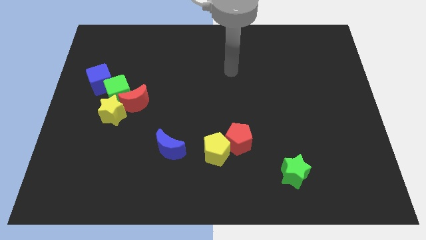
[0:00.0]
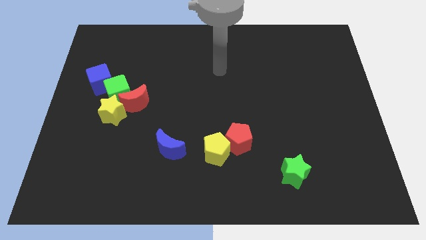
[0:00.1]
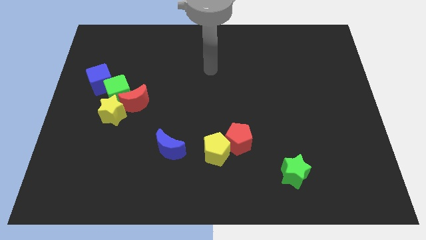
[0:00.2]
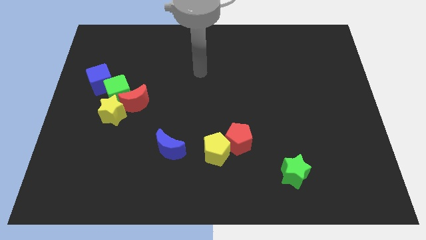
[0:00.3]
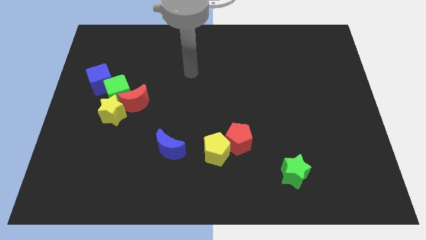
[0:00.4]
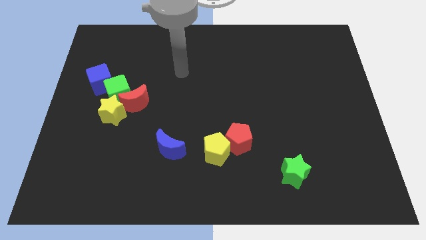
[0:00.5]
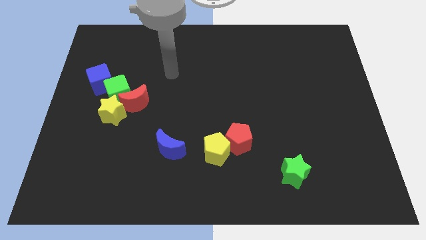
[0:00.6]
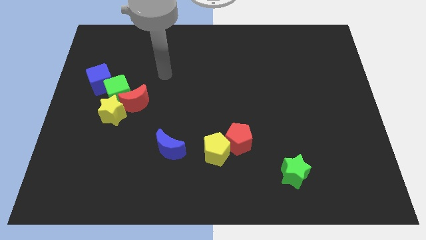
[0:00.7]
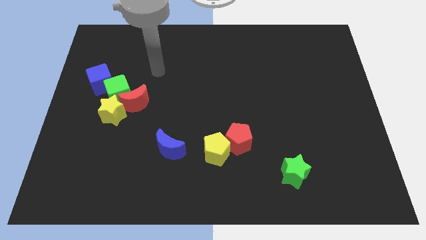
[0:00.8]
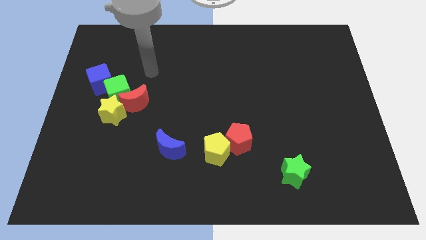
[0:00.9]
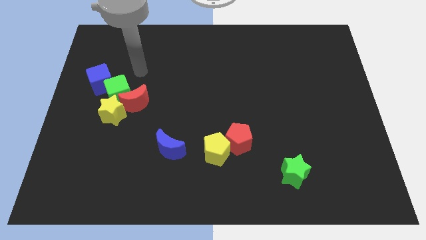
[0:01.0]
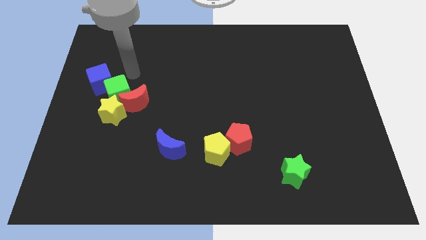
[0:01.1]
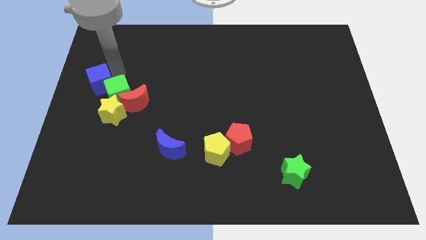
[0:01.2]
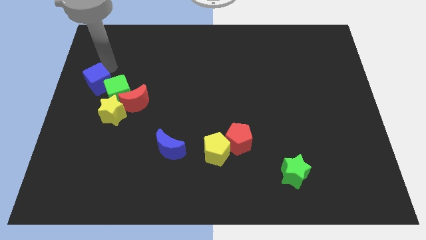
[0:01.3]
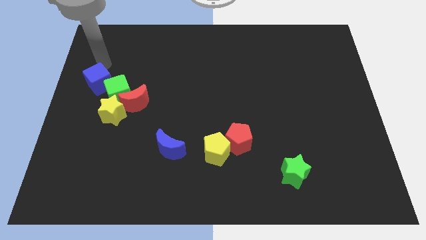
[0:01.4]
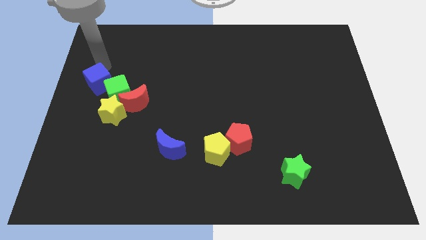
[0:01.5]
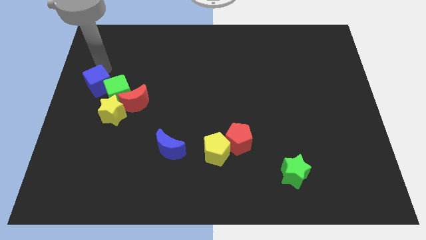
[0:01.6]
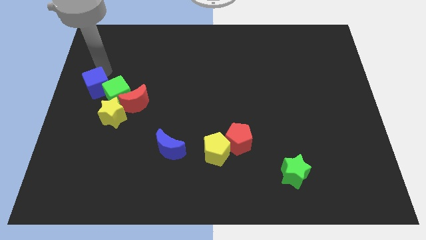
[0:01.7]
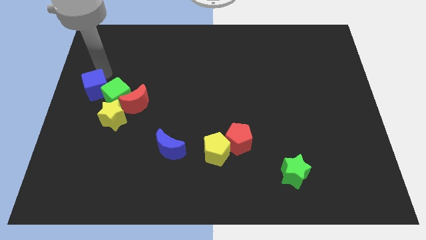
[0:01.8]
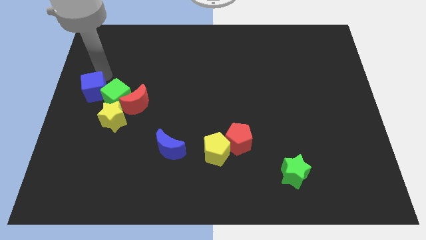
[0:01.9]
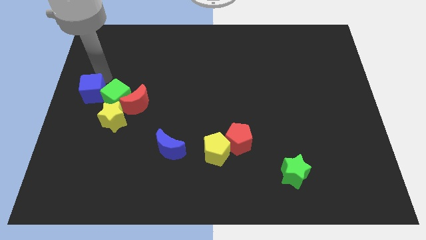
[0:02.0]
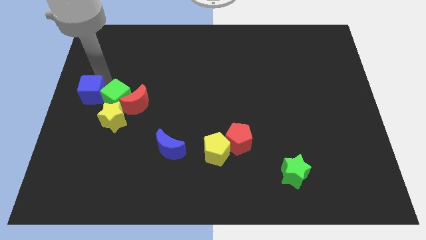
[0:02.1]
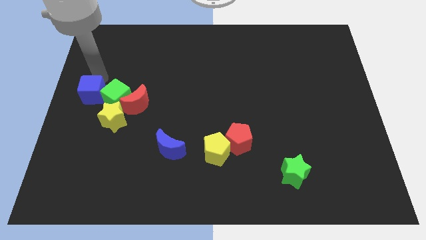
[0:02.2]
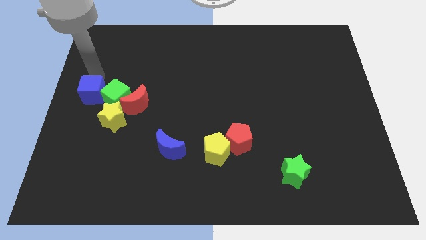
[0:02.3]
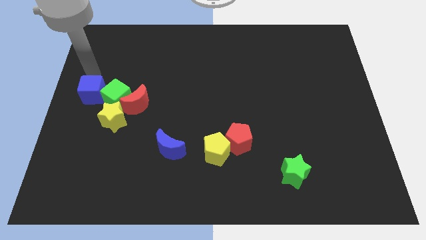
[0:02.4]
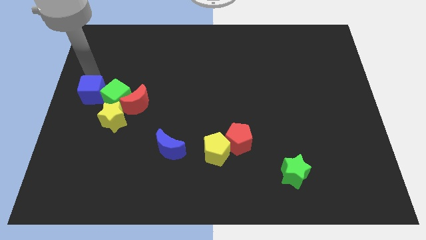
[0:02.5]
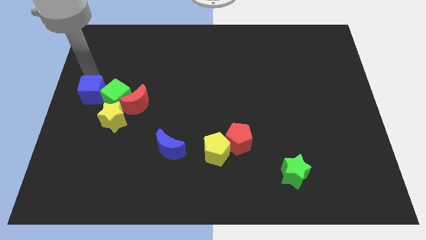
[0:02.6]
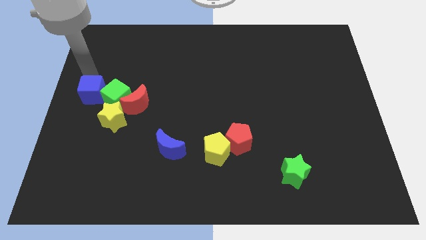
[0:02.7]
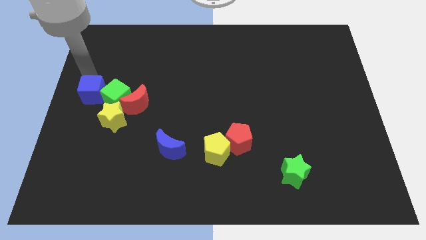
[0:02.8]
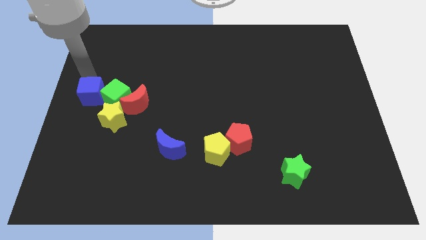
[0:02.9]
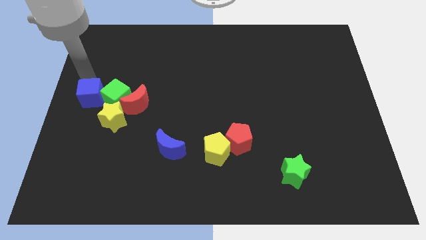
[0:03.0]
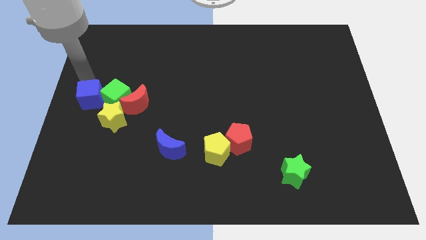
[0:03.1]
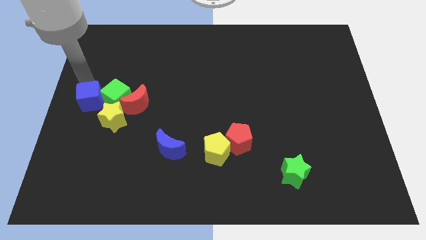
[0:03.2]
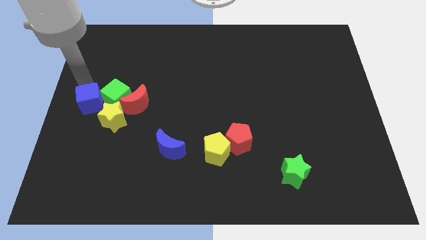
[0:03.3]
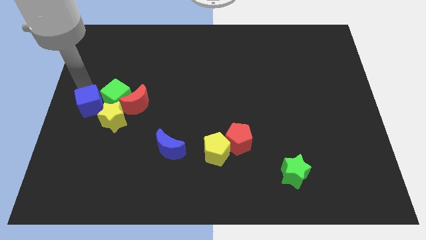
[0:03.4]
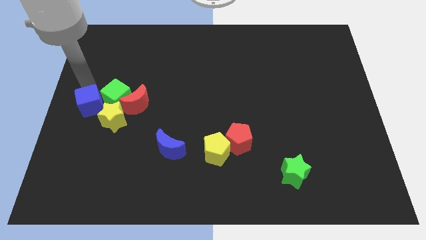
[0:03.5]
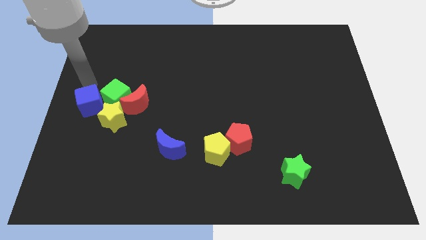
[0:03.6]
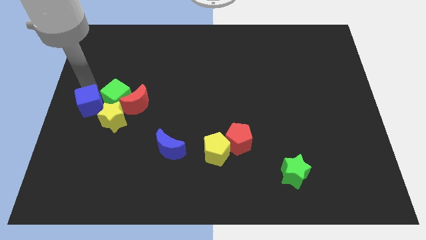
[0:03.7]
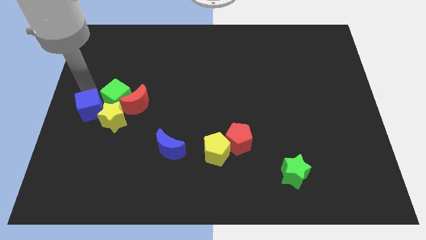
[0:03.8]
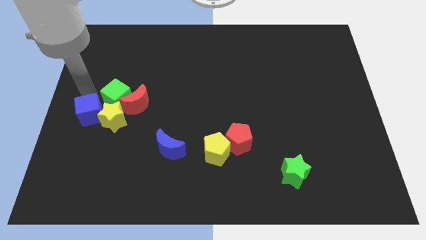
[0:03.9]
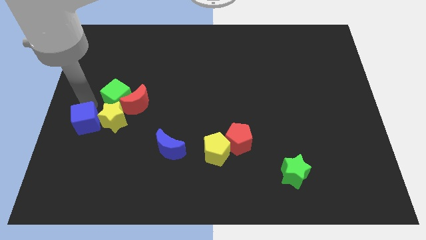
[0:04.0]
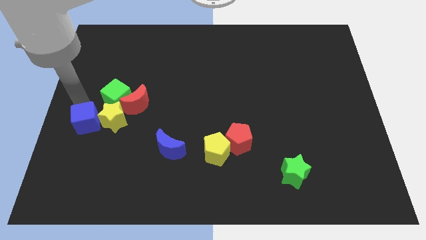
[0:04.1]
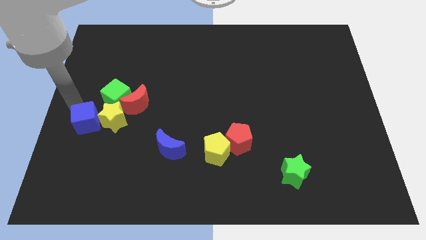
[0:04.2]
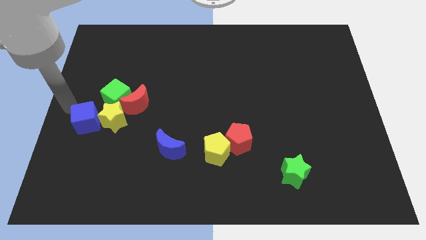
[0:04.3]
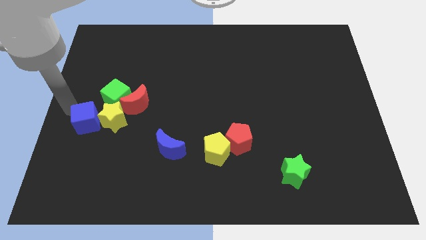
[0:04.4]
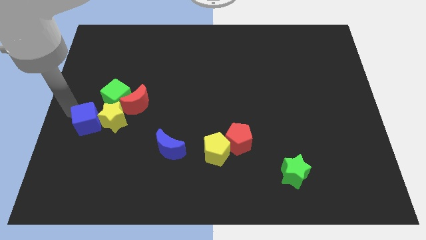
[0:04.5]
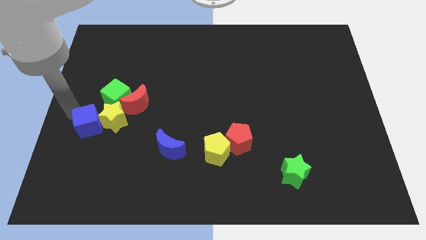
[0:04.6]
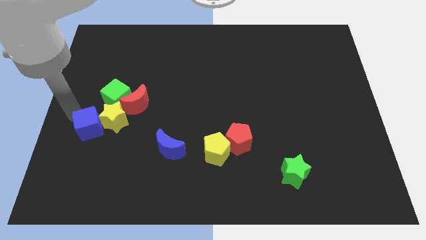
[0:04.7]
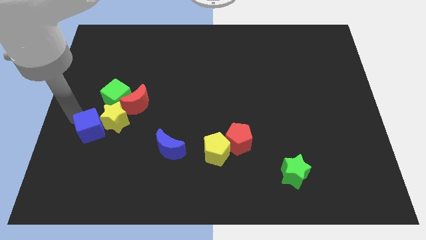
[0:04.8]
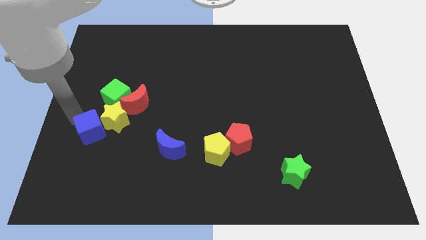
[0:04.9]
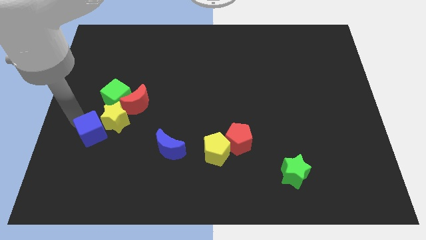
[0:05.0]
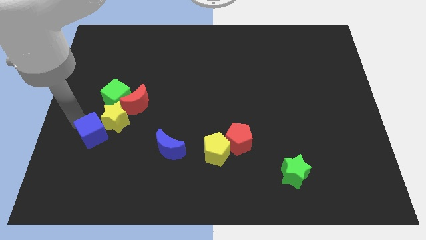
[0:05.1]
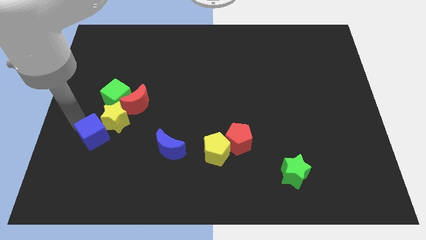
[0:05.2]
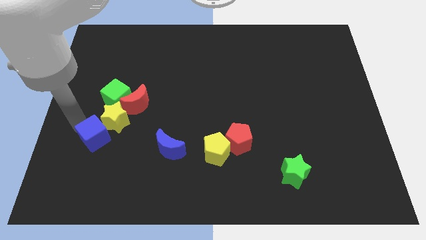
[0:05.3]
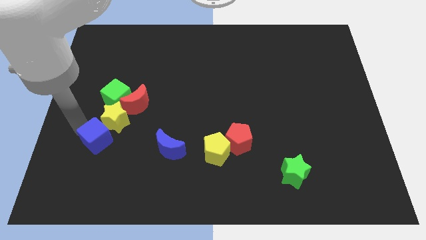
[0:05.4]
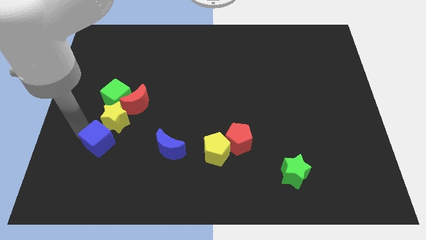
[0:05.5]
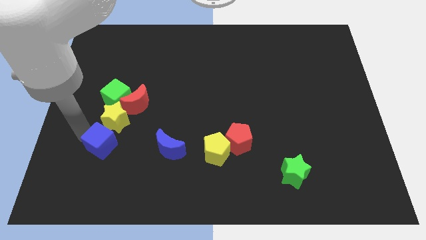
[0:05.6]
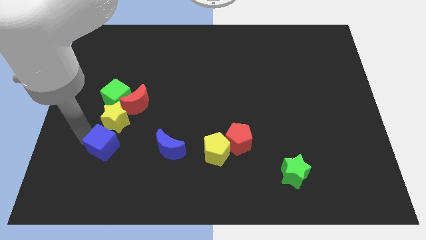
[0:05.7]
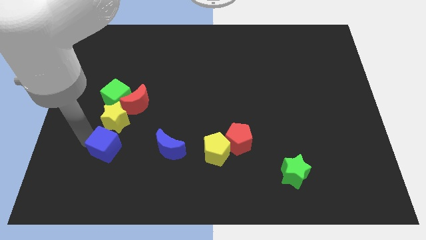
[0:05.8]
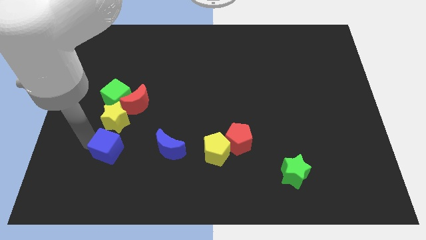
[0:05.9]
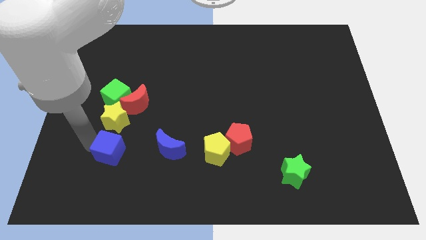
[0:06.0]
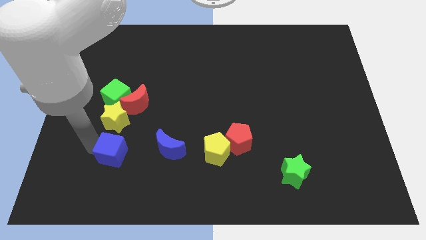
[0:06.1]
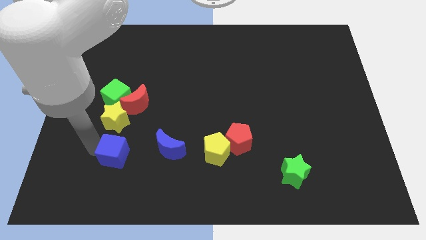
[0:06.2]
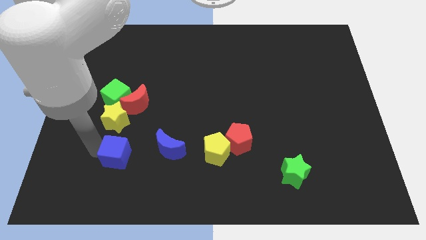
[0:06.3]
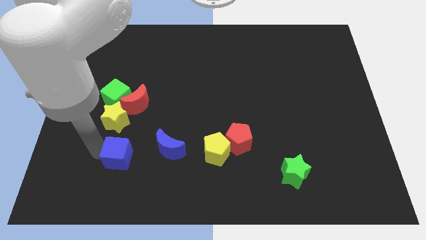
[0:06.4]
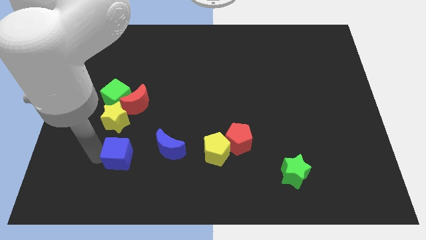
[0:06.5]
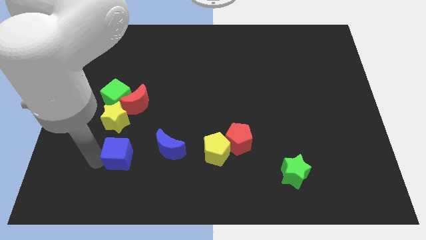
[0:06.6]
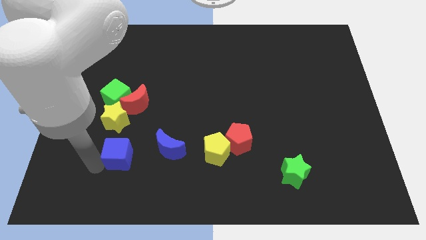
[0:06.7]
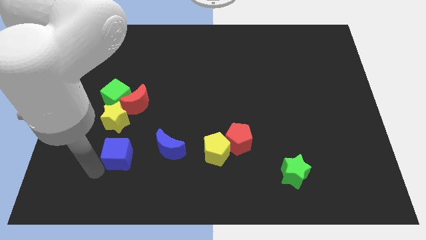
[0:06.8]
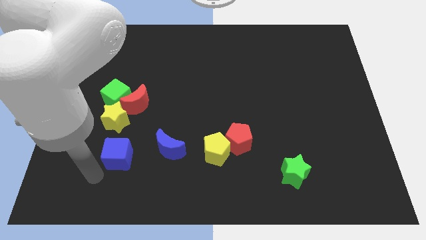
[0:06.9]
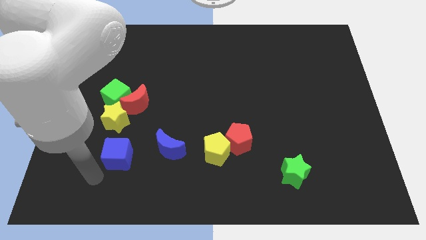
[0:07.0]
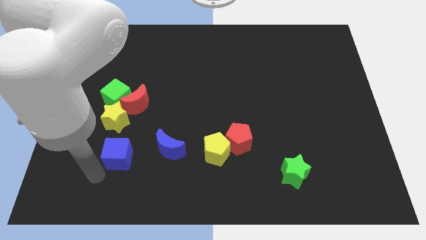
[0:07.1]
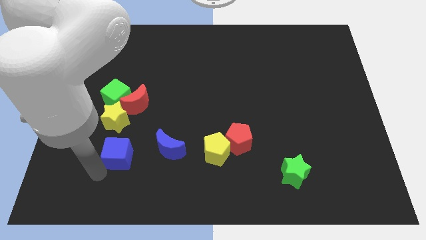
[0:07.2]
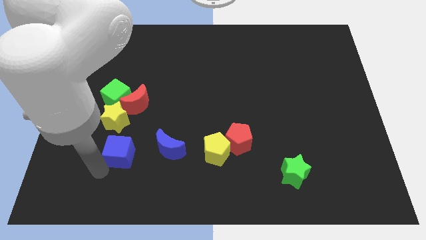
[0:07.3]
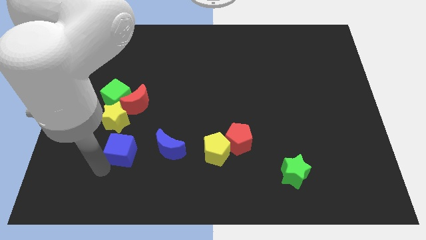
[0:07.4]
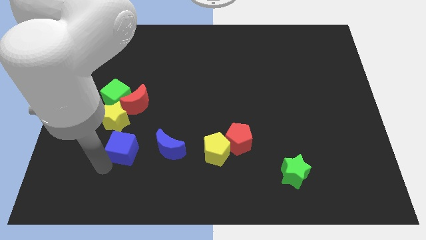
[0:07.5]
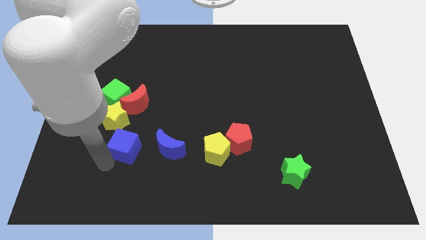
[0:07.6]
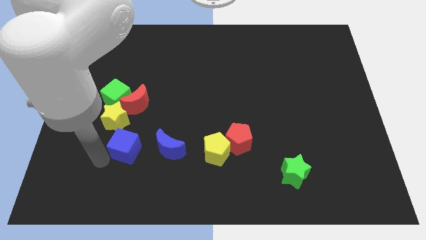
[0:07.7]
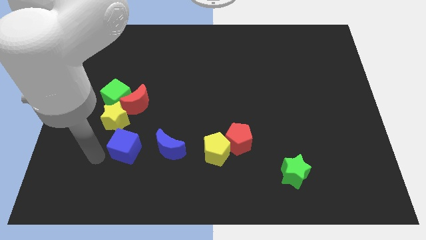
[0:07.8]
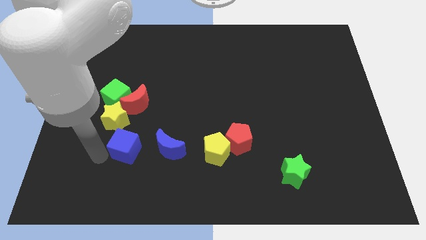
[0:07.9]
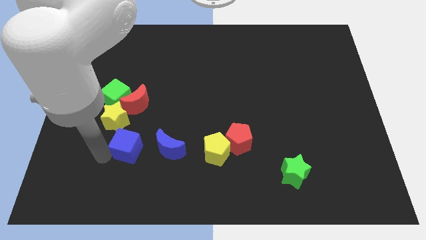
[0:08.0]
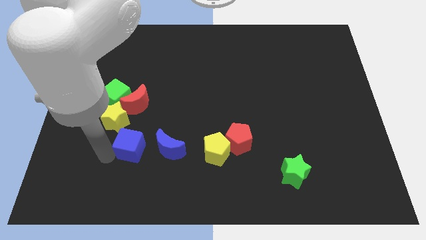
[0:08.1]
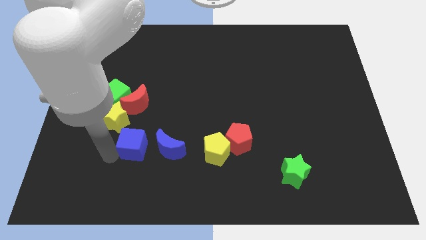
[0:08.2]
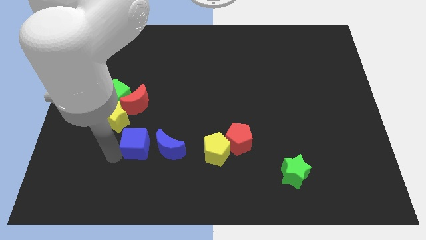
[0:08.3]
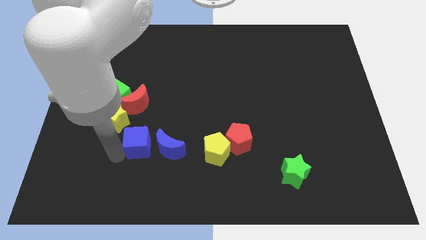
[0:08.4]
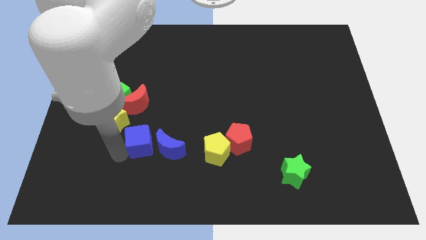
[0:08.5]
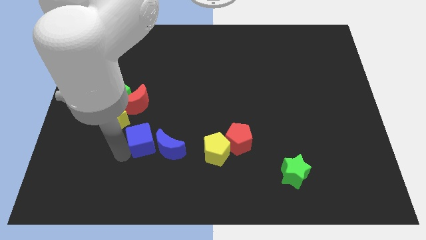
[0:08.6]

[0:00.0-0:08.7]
move the blue cube to the blue moon
